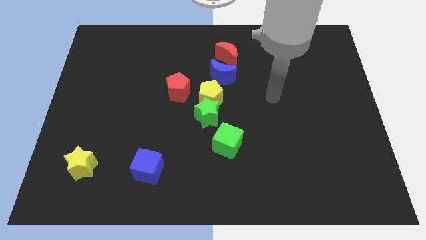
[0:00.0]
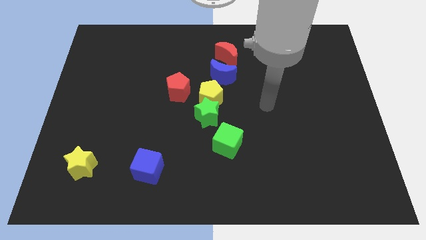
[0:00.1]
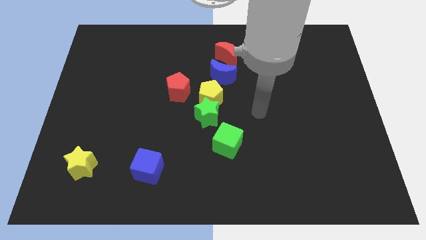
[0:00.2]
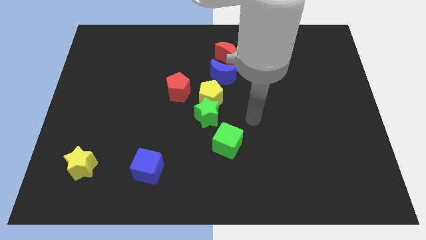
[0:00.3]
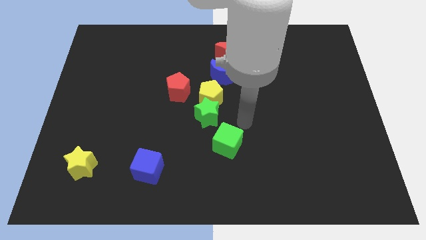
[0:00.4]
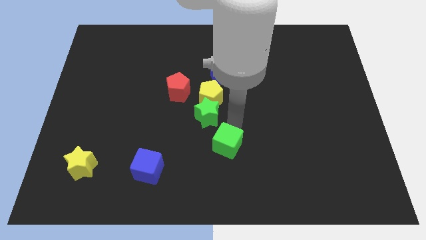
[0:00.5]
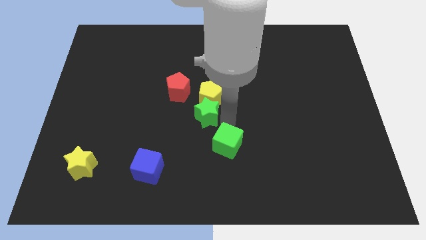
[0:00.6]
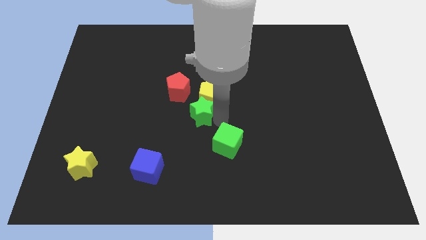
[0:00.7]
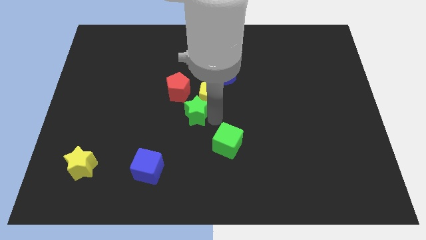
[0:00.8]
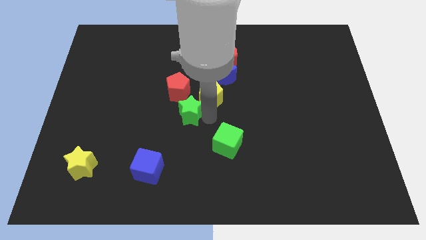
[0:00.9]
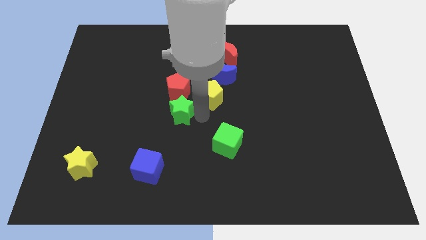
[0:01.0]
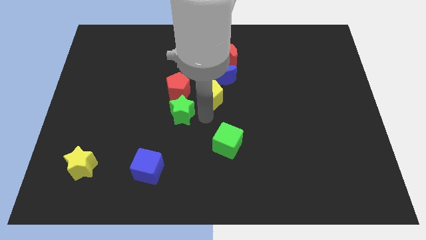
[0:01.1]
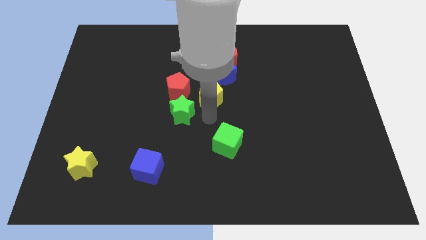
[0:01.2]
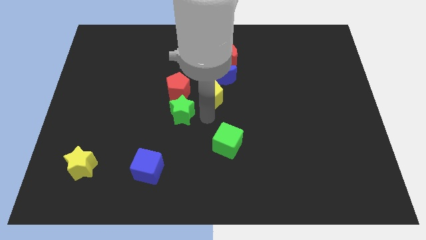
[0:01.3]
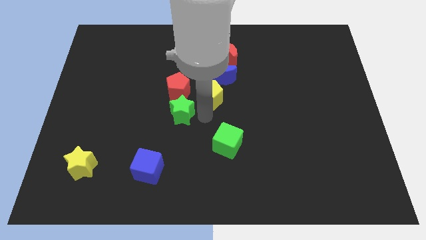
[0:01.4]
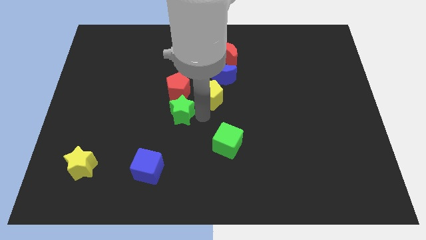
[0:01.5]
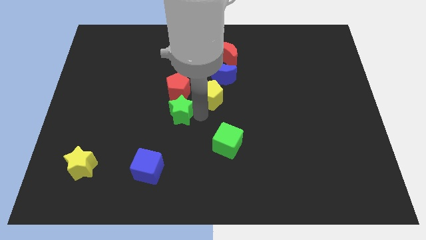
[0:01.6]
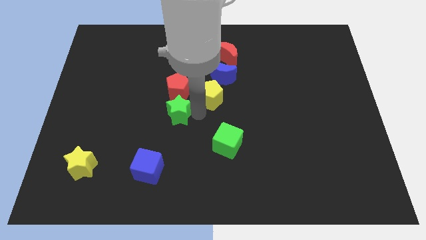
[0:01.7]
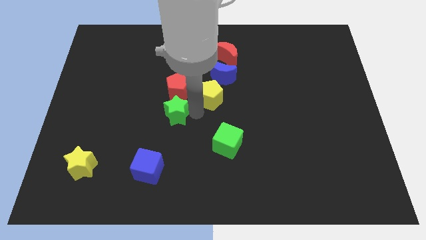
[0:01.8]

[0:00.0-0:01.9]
move the green star away from the yellow pentagon and green cube

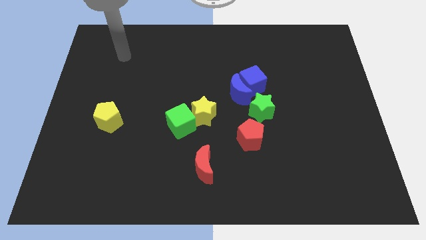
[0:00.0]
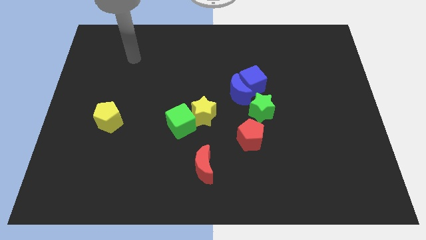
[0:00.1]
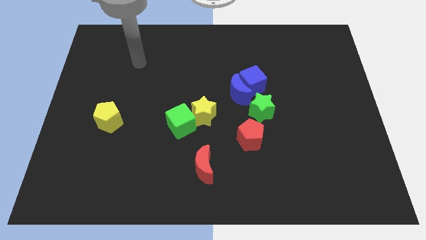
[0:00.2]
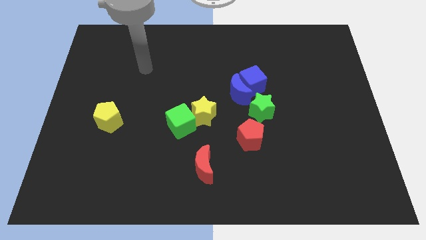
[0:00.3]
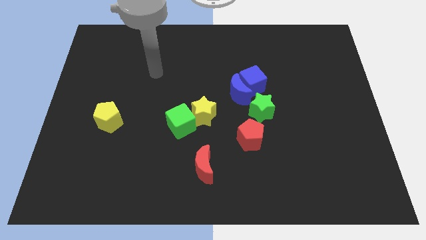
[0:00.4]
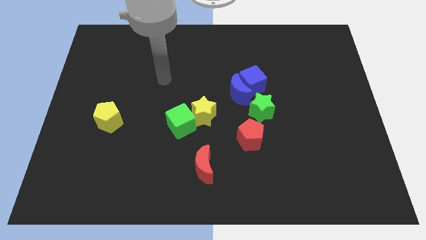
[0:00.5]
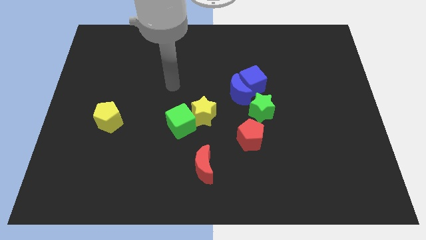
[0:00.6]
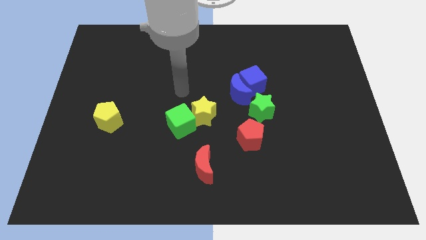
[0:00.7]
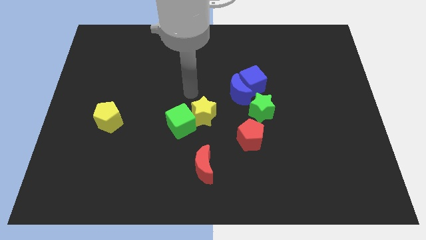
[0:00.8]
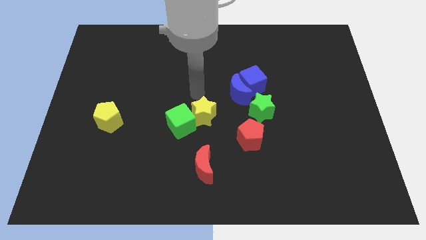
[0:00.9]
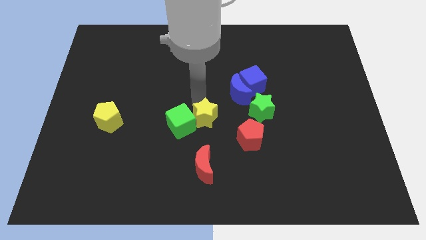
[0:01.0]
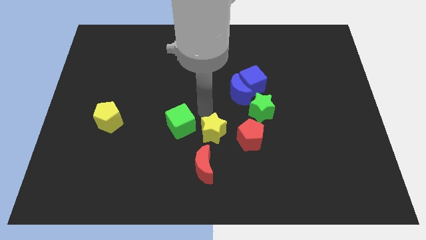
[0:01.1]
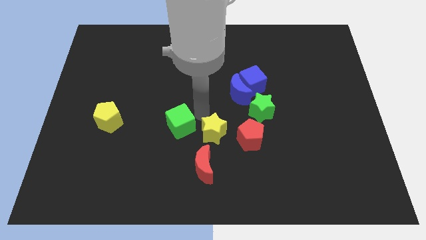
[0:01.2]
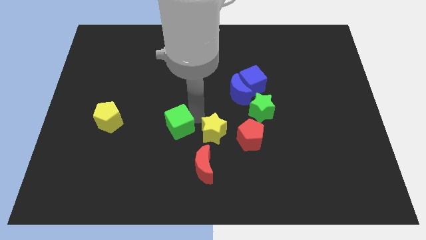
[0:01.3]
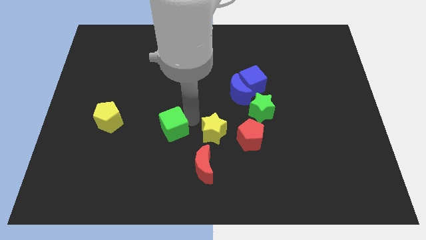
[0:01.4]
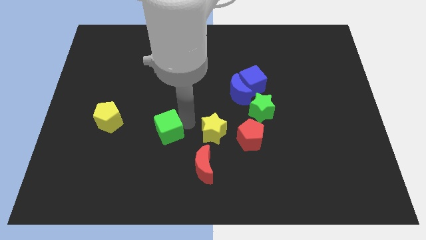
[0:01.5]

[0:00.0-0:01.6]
move the green cube away from the yellow star

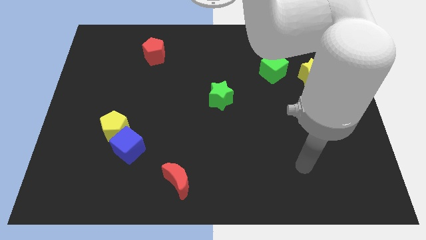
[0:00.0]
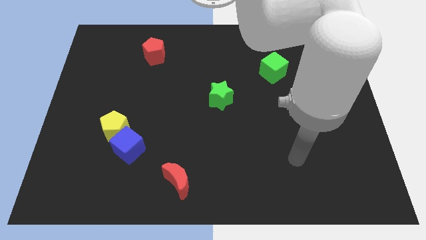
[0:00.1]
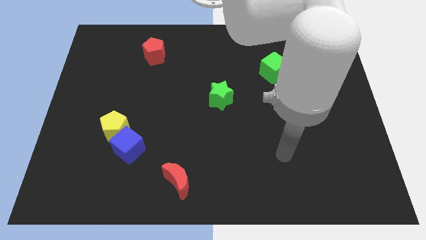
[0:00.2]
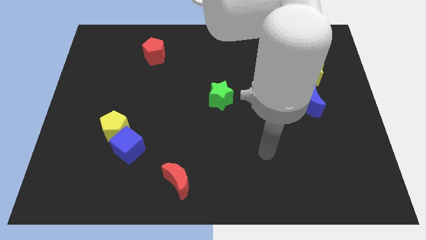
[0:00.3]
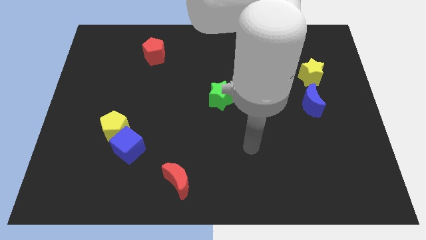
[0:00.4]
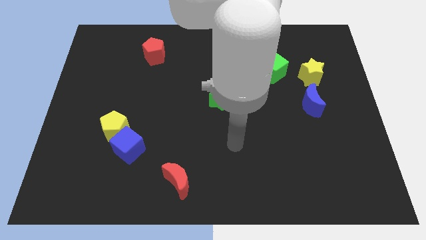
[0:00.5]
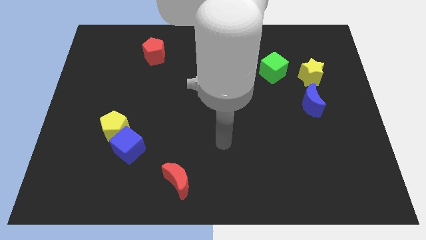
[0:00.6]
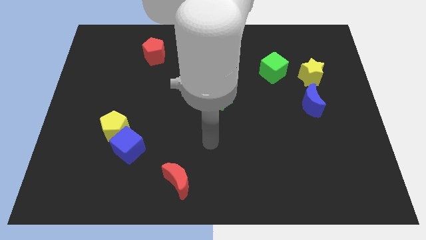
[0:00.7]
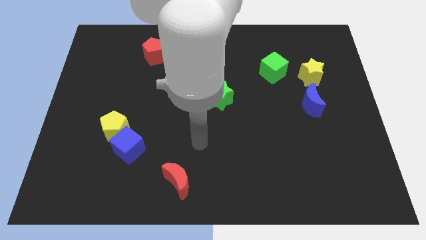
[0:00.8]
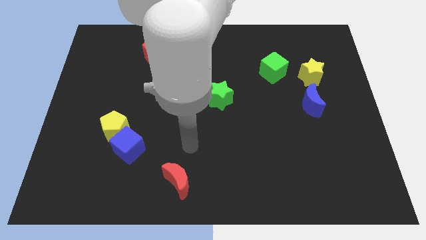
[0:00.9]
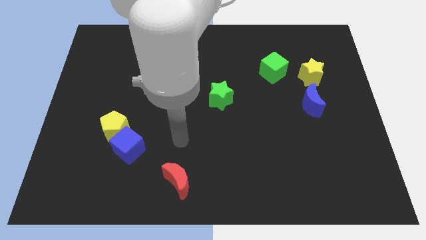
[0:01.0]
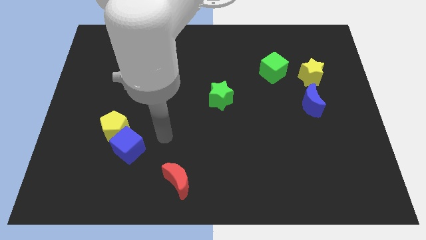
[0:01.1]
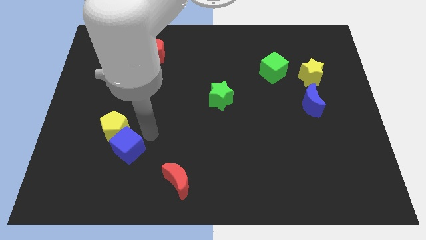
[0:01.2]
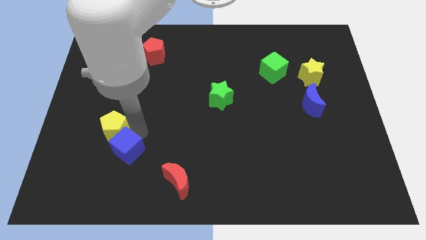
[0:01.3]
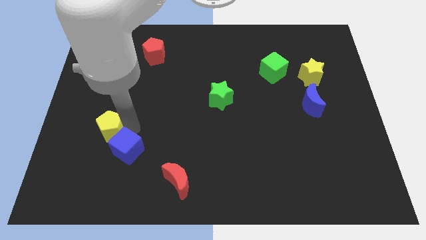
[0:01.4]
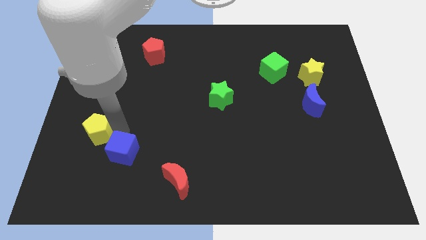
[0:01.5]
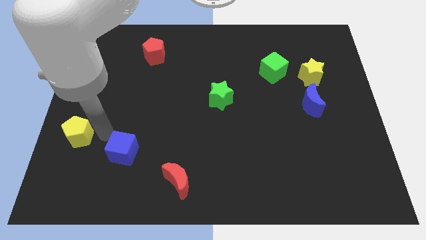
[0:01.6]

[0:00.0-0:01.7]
pull the blue cube apart from the yellow pentagon

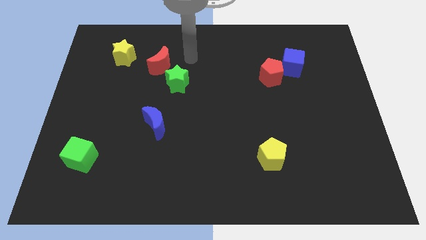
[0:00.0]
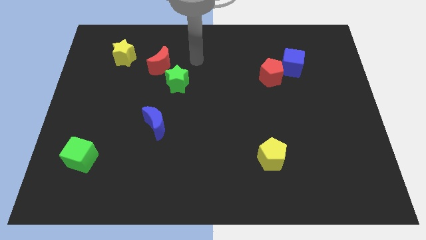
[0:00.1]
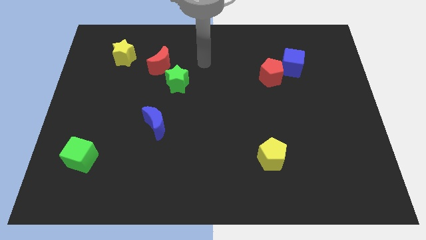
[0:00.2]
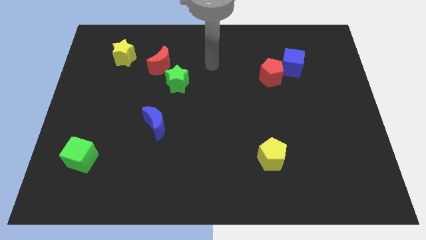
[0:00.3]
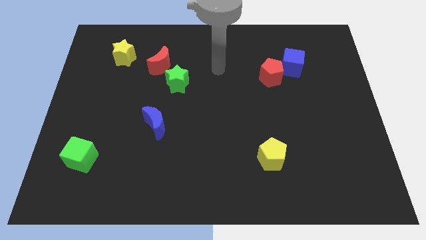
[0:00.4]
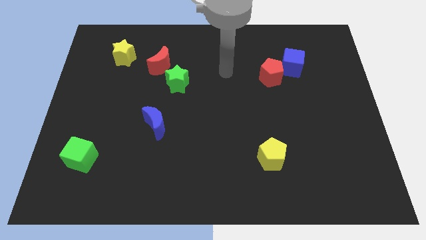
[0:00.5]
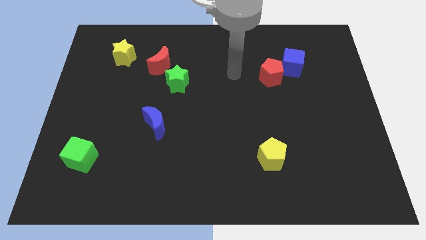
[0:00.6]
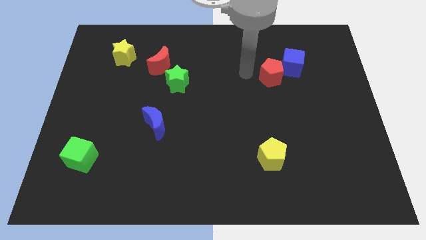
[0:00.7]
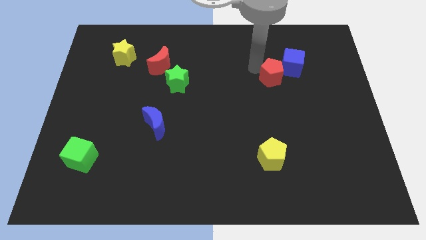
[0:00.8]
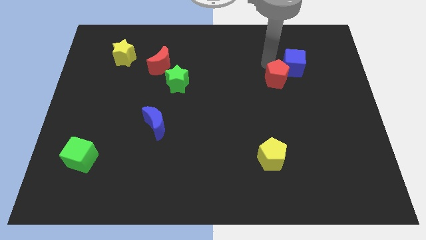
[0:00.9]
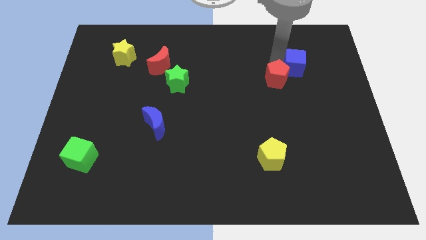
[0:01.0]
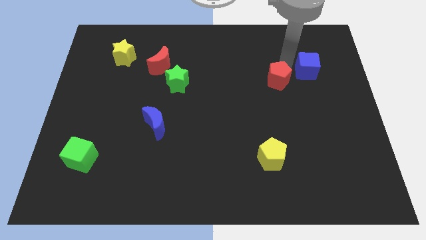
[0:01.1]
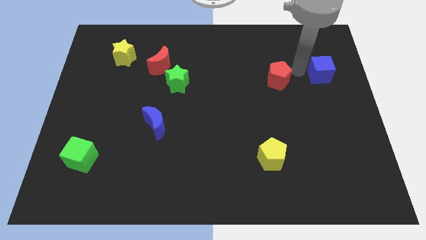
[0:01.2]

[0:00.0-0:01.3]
separate the red pentagon from the blue cube

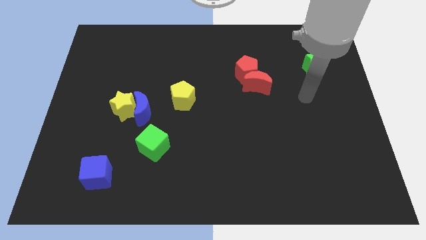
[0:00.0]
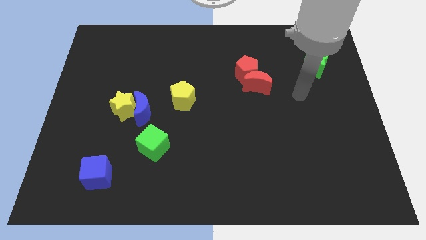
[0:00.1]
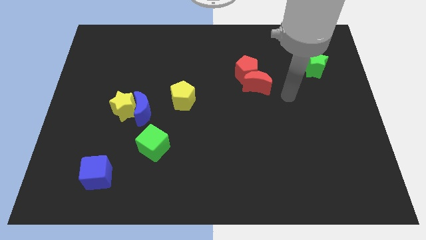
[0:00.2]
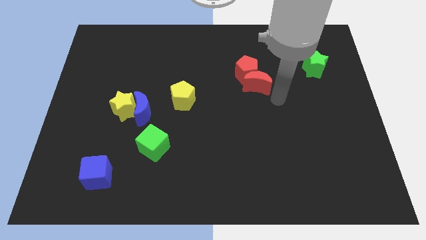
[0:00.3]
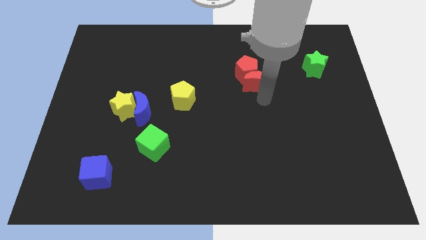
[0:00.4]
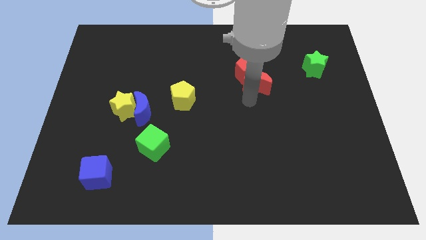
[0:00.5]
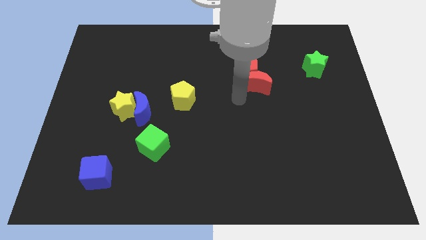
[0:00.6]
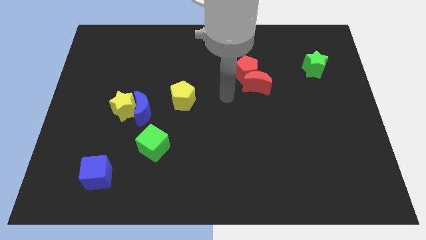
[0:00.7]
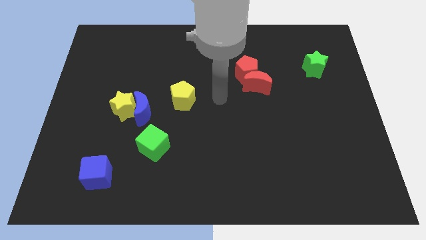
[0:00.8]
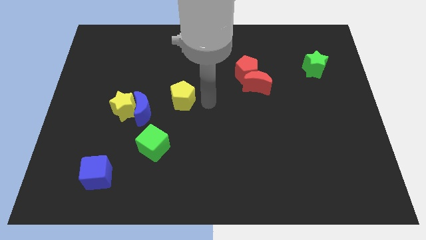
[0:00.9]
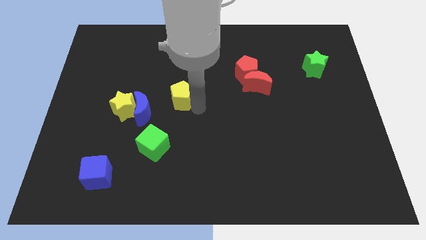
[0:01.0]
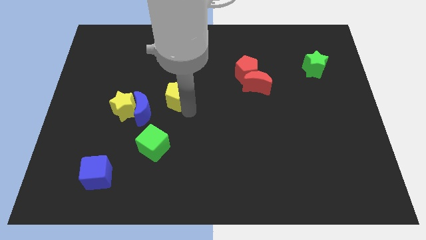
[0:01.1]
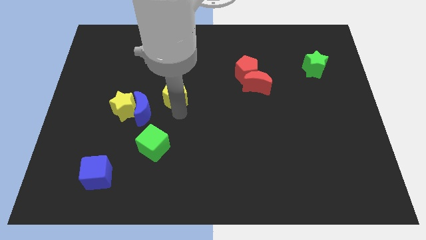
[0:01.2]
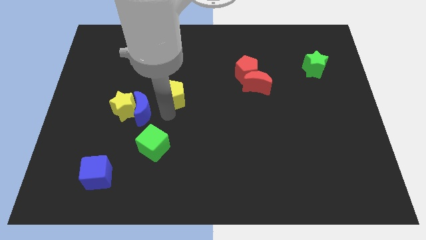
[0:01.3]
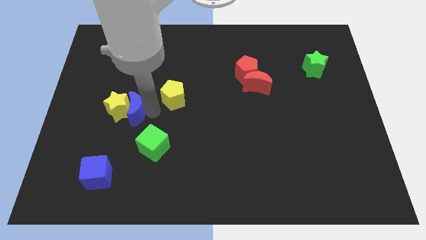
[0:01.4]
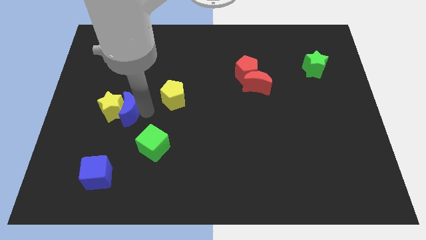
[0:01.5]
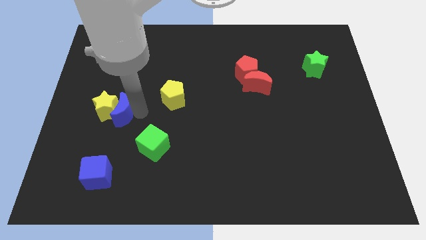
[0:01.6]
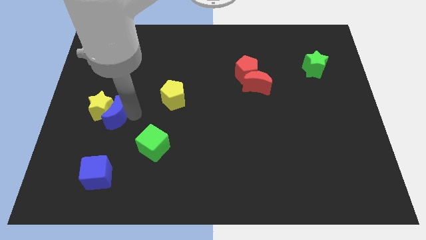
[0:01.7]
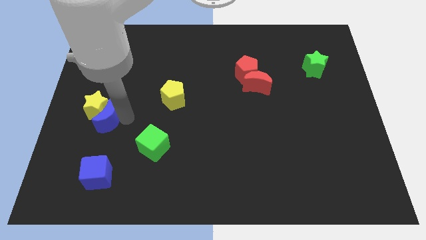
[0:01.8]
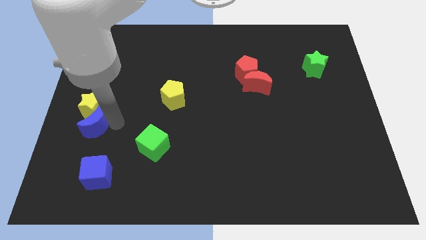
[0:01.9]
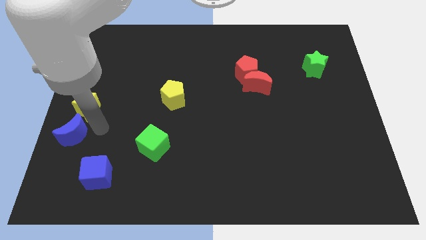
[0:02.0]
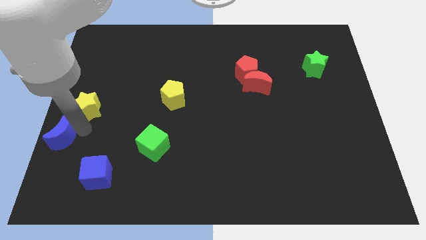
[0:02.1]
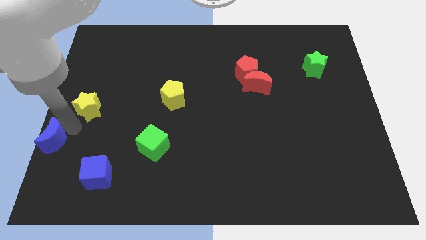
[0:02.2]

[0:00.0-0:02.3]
move the yellow star away from the blue moon

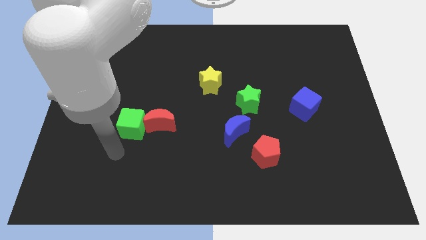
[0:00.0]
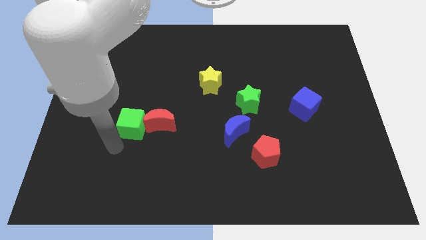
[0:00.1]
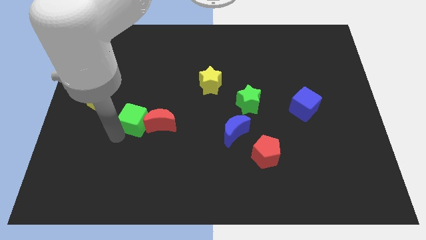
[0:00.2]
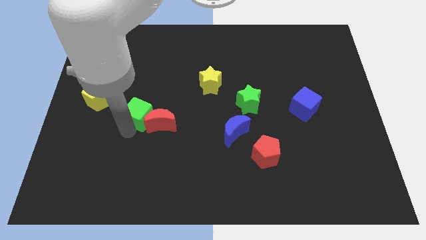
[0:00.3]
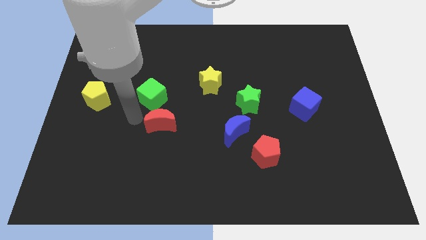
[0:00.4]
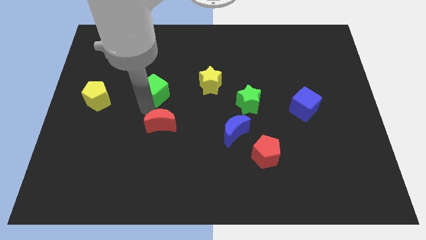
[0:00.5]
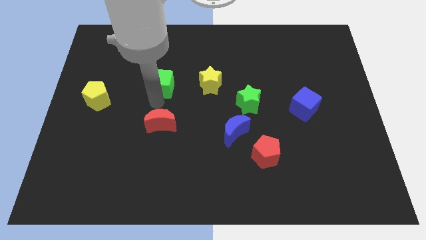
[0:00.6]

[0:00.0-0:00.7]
pull the red moon apart from the green cube
